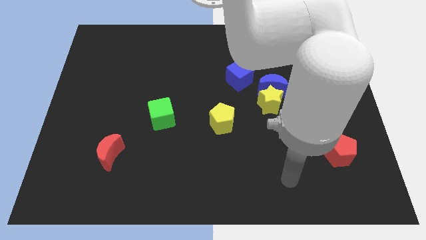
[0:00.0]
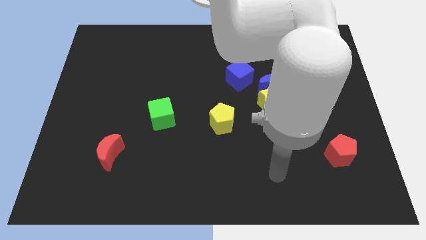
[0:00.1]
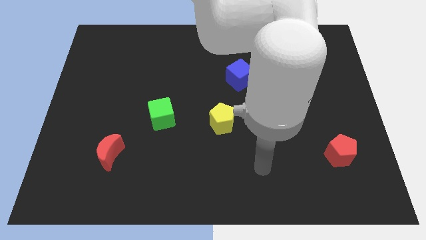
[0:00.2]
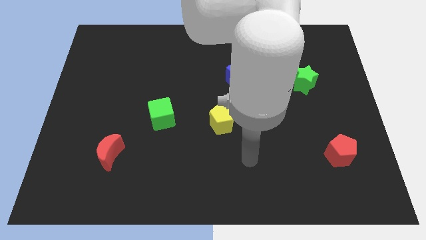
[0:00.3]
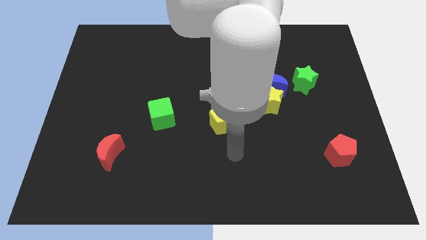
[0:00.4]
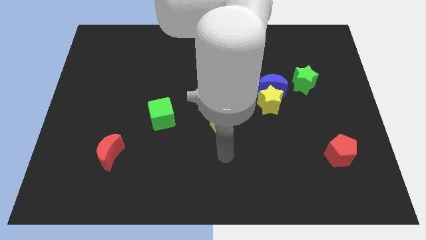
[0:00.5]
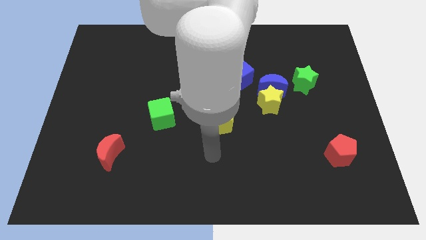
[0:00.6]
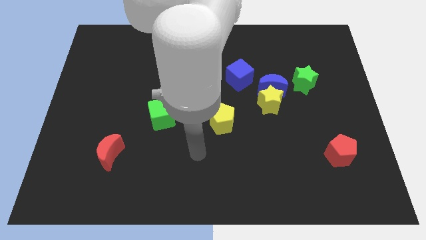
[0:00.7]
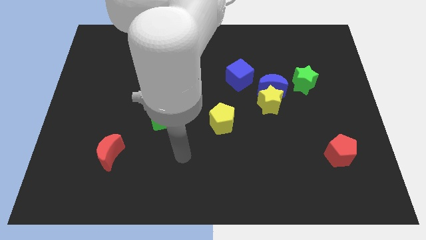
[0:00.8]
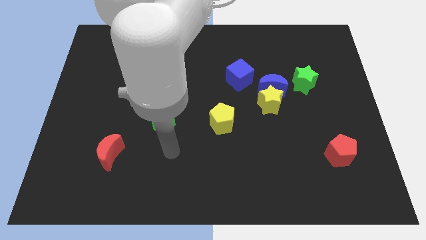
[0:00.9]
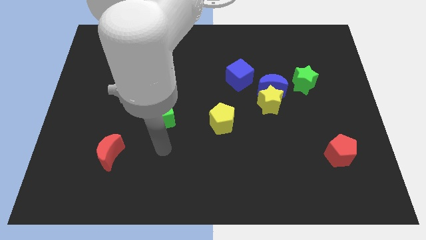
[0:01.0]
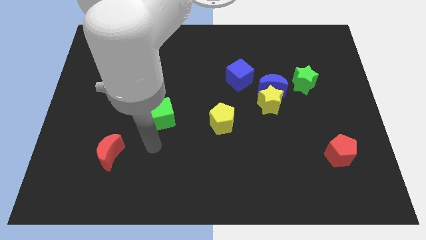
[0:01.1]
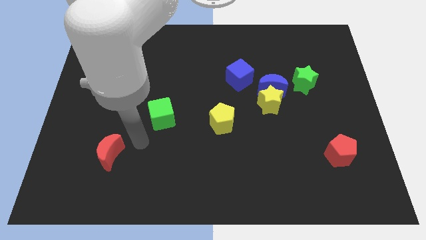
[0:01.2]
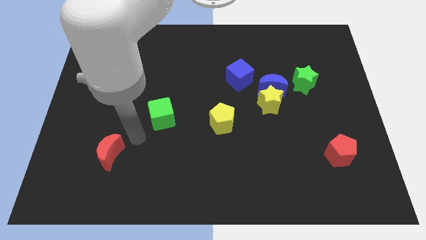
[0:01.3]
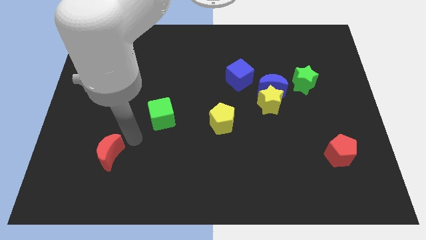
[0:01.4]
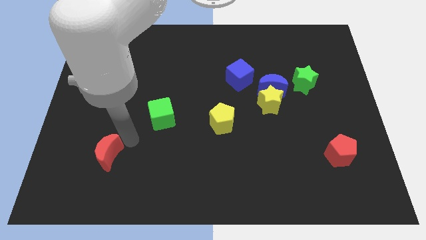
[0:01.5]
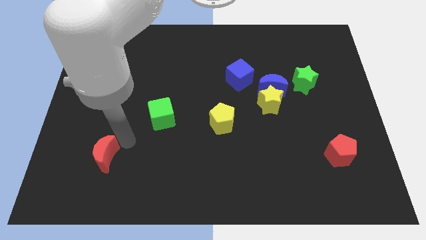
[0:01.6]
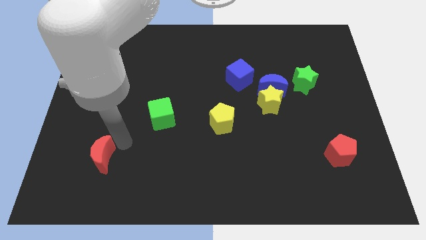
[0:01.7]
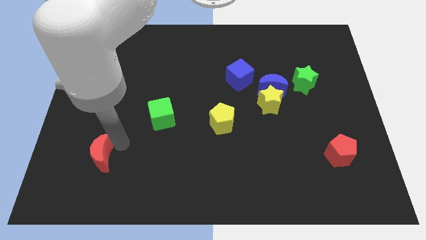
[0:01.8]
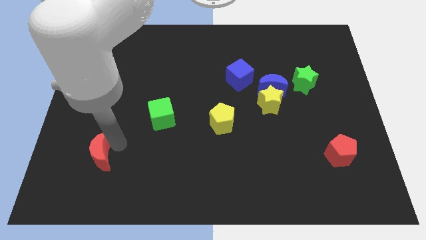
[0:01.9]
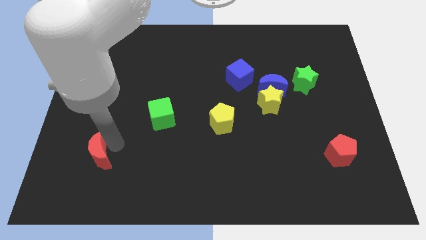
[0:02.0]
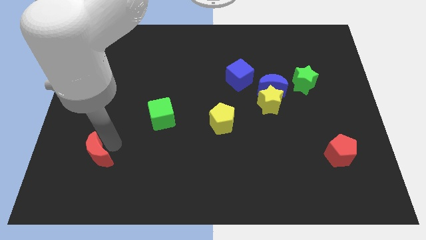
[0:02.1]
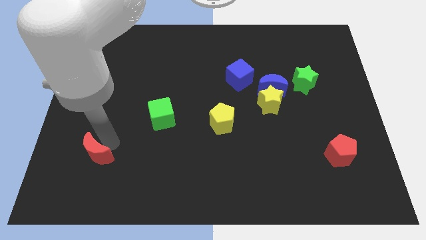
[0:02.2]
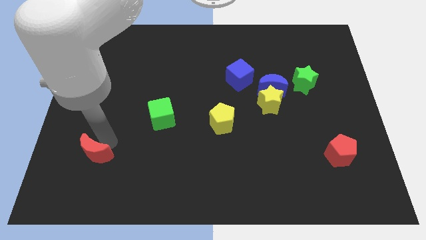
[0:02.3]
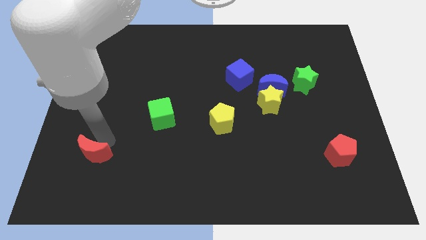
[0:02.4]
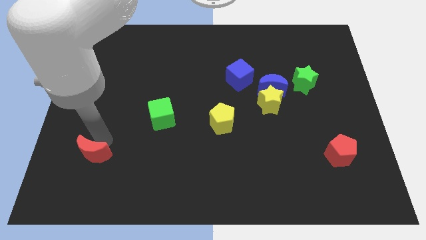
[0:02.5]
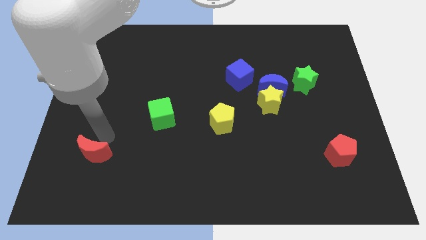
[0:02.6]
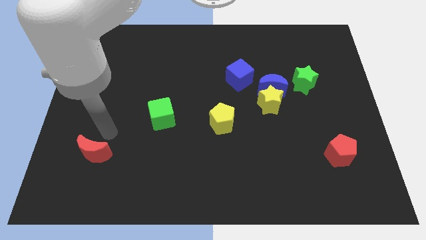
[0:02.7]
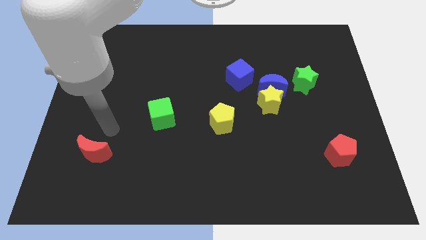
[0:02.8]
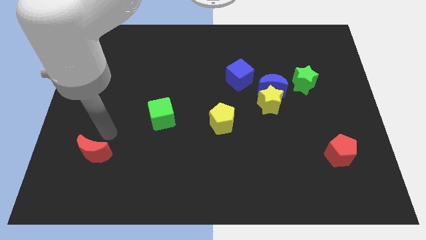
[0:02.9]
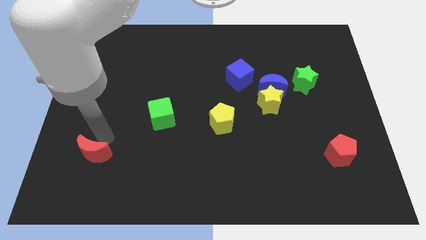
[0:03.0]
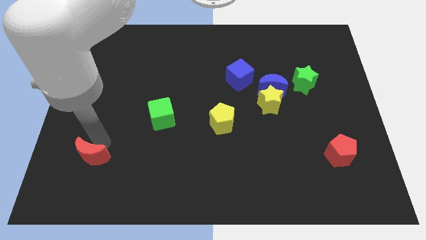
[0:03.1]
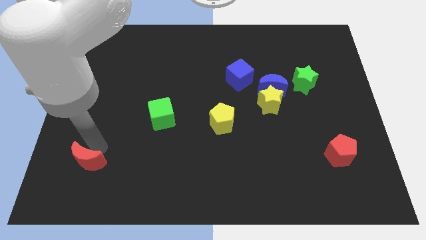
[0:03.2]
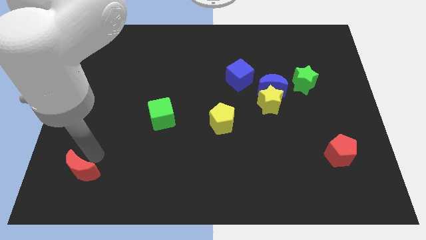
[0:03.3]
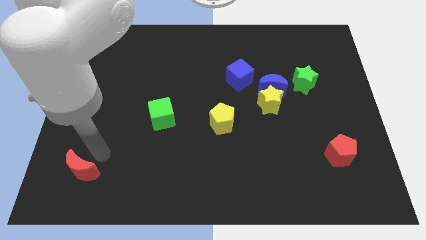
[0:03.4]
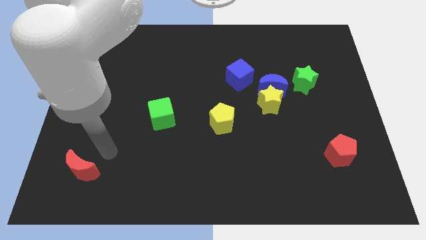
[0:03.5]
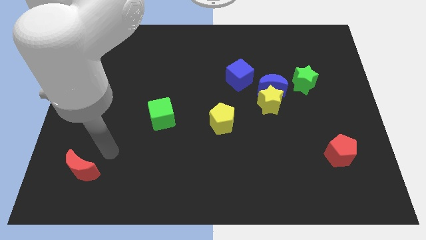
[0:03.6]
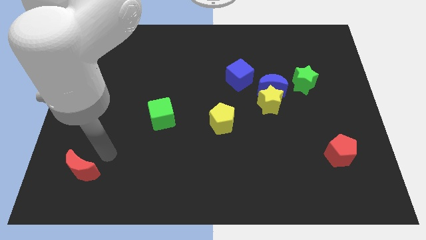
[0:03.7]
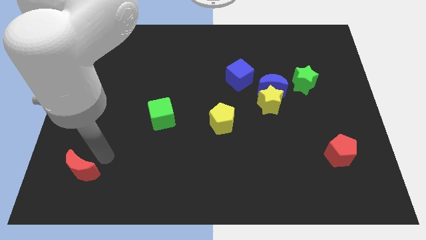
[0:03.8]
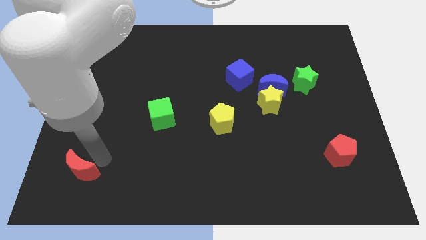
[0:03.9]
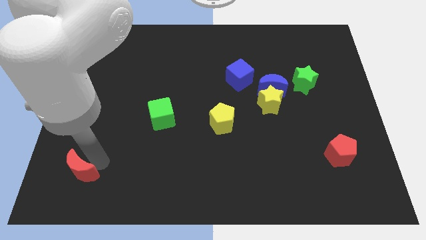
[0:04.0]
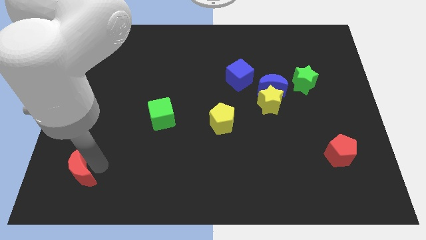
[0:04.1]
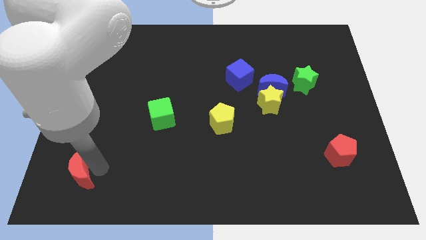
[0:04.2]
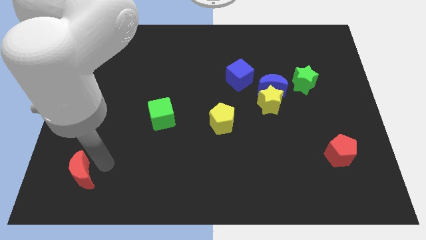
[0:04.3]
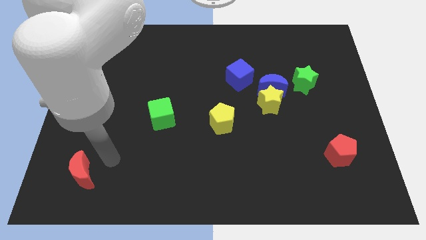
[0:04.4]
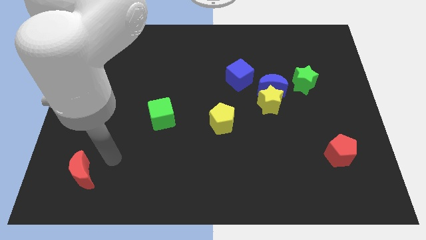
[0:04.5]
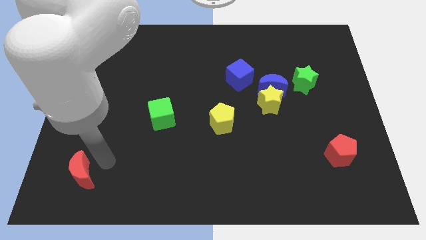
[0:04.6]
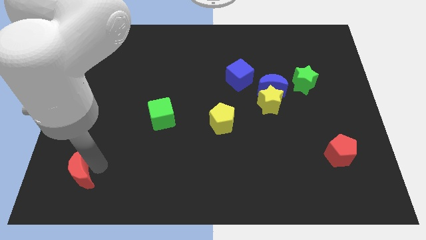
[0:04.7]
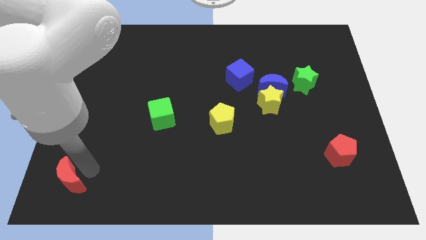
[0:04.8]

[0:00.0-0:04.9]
slide the red moon to the bottom left

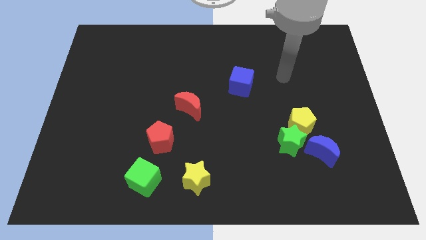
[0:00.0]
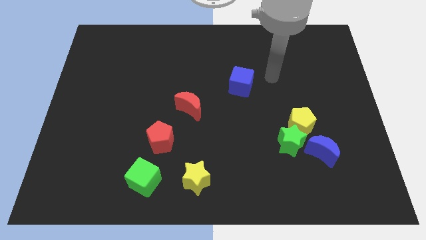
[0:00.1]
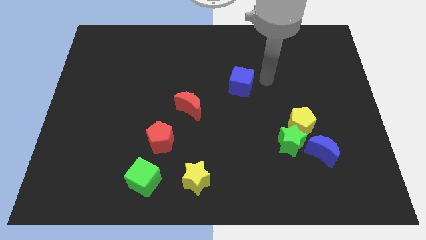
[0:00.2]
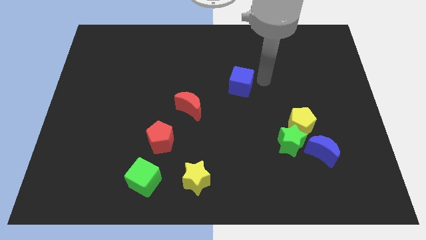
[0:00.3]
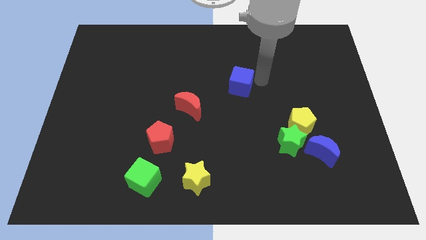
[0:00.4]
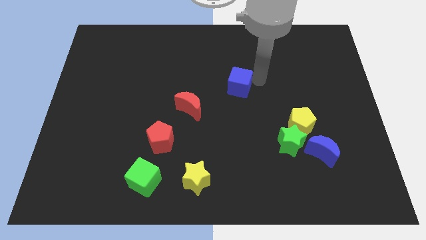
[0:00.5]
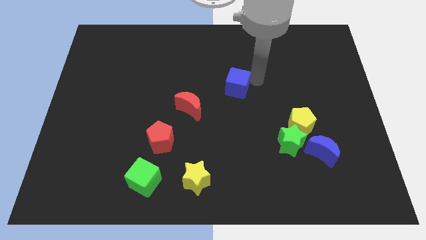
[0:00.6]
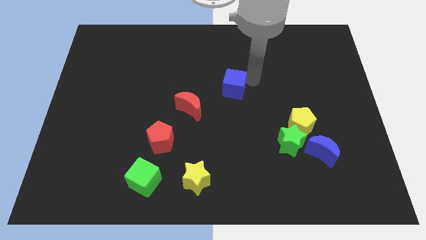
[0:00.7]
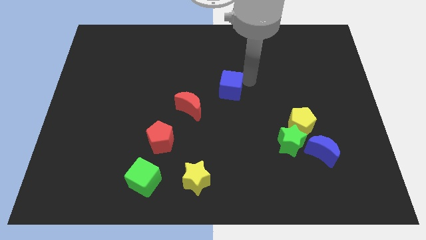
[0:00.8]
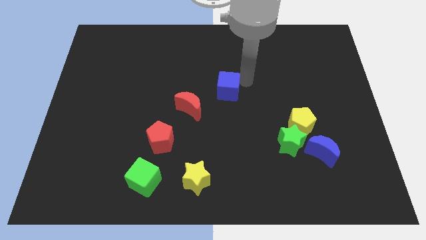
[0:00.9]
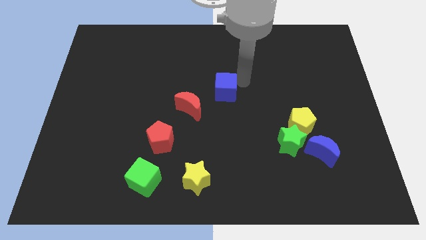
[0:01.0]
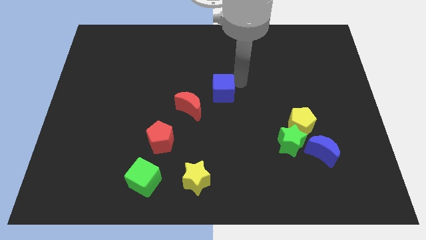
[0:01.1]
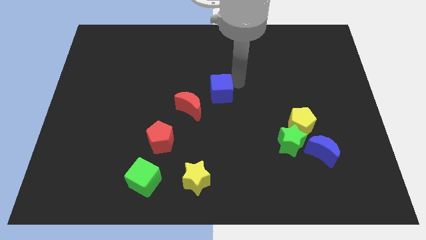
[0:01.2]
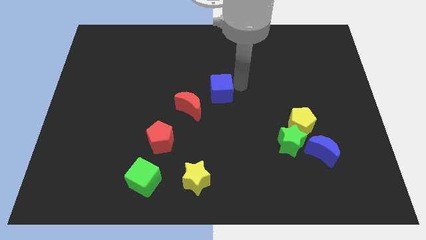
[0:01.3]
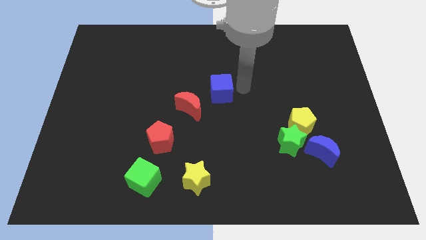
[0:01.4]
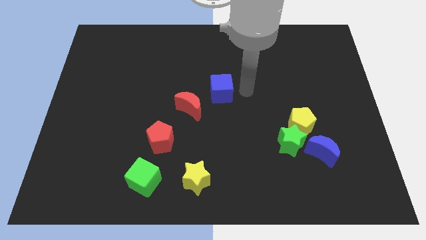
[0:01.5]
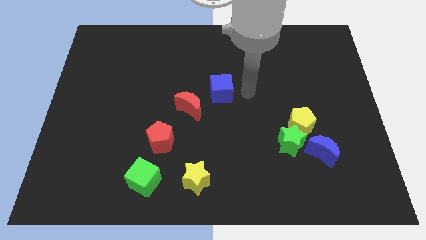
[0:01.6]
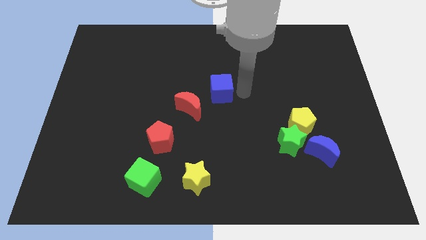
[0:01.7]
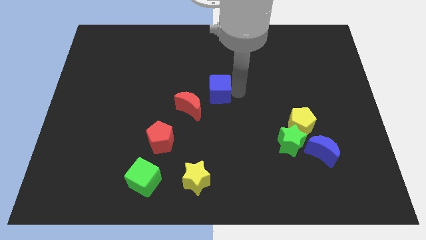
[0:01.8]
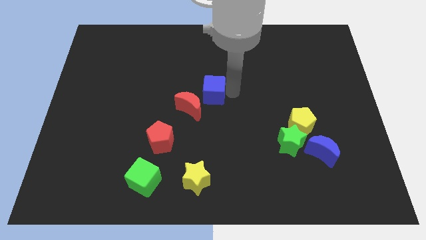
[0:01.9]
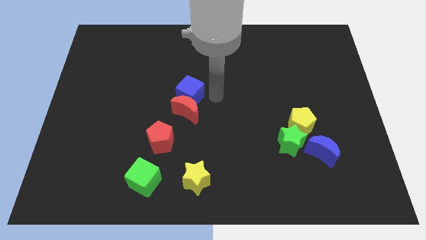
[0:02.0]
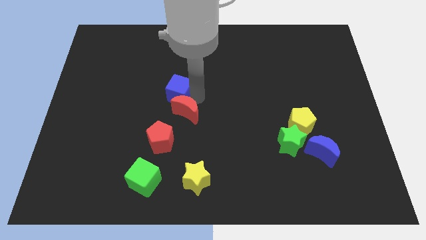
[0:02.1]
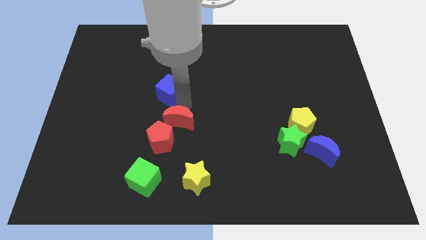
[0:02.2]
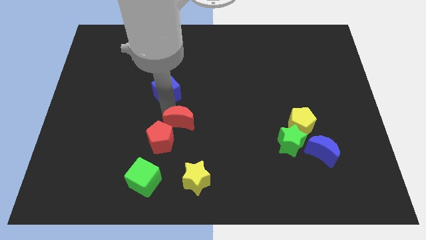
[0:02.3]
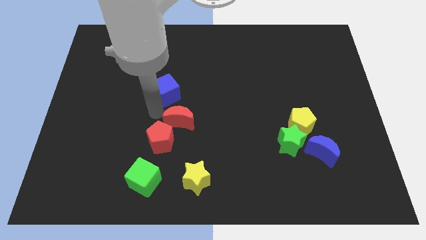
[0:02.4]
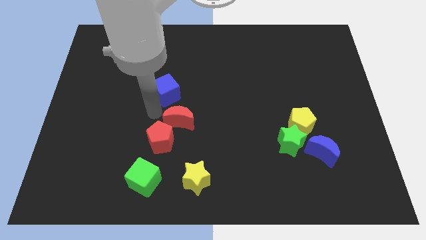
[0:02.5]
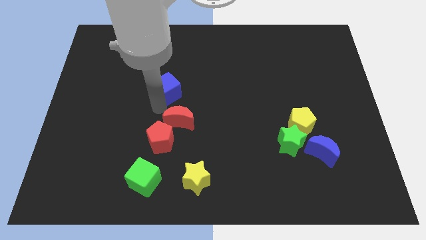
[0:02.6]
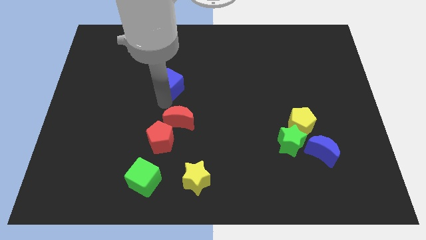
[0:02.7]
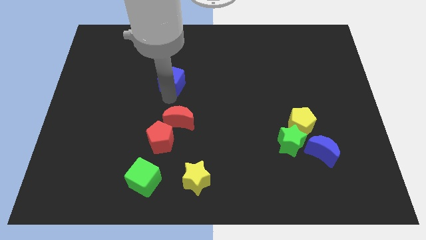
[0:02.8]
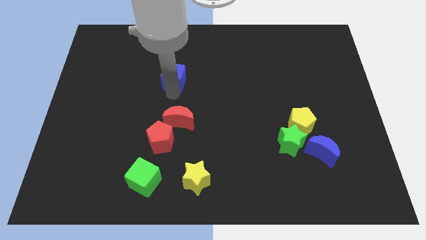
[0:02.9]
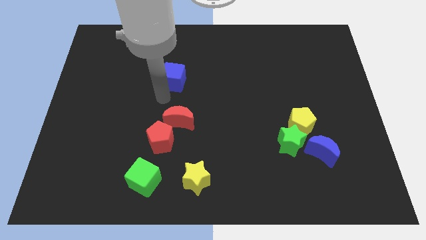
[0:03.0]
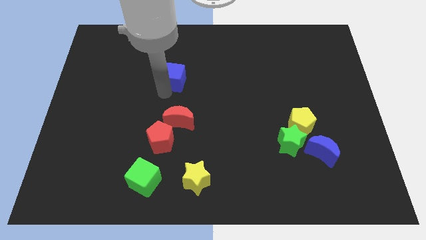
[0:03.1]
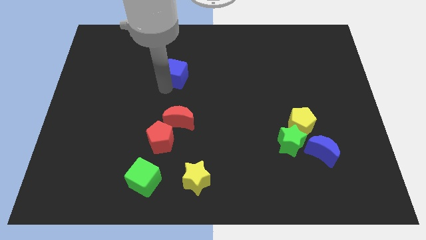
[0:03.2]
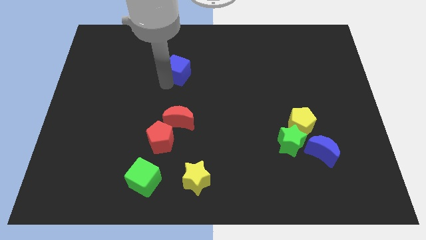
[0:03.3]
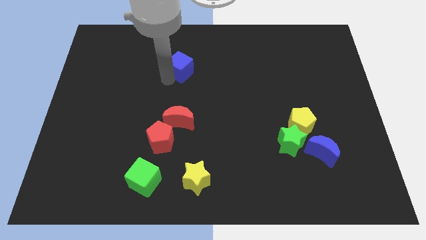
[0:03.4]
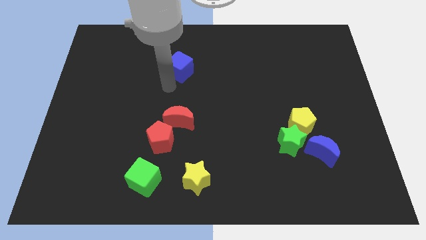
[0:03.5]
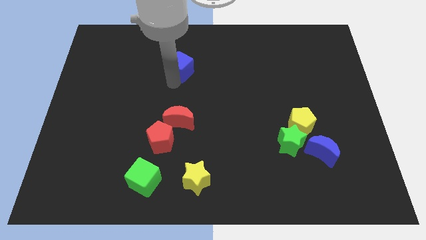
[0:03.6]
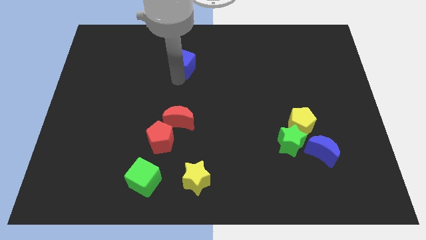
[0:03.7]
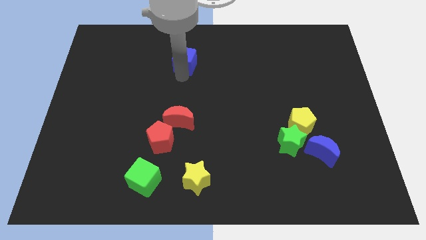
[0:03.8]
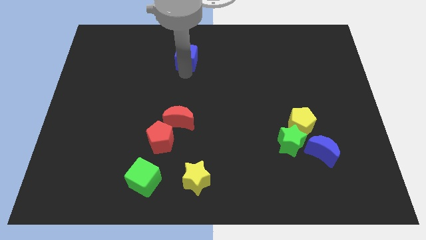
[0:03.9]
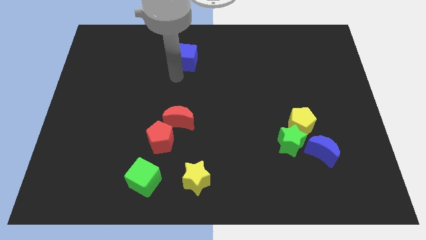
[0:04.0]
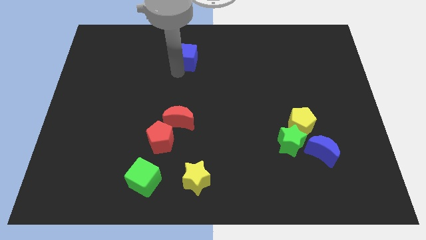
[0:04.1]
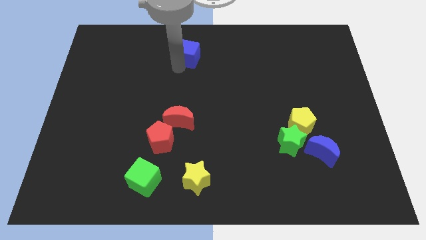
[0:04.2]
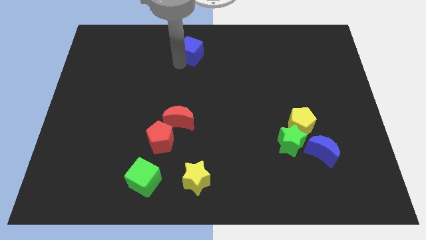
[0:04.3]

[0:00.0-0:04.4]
slide the blue cube to the towards your base
